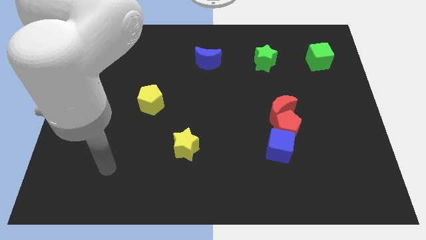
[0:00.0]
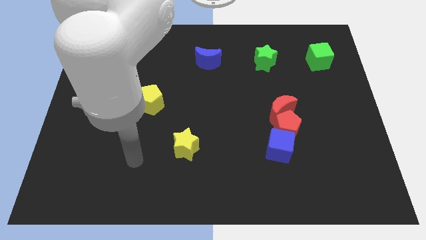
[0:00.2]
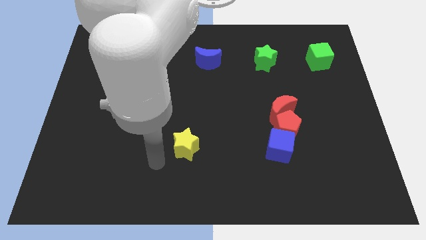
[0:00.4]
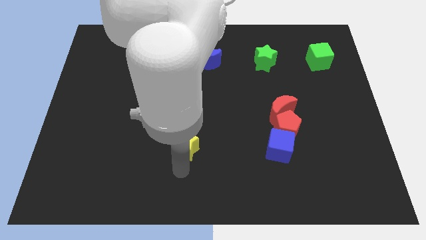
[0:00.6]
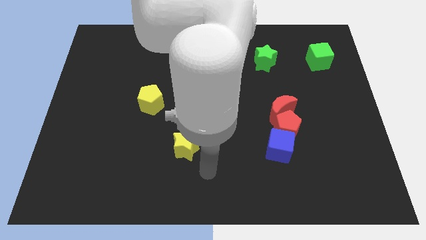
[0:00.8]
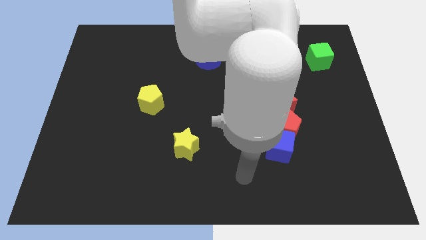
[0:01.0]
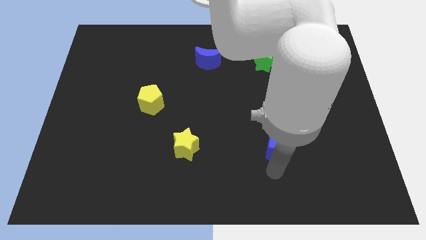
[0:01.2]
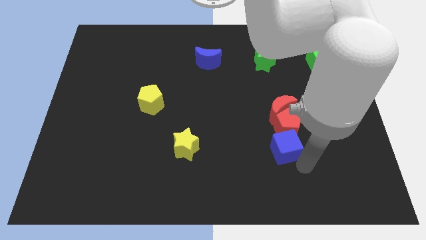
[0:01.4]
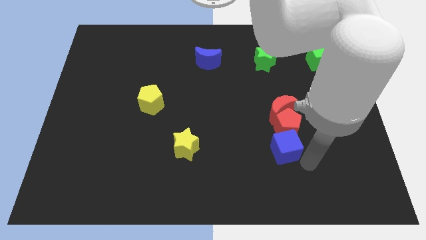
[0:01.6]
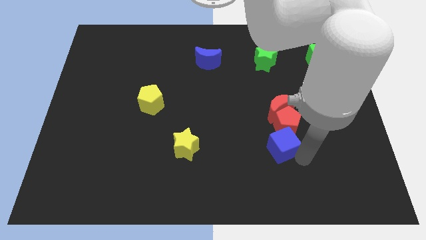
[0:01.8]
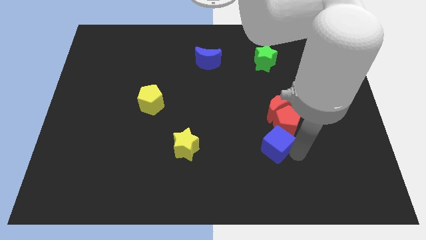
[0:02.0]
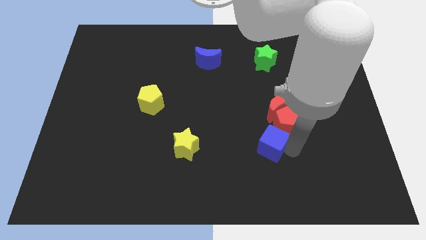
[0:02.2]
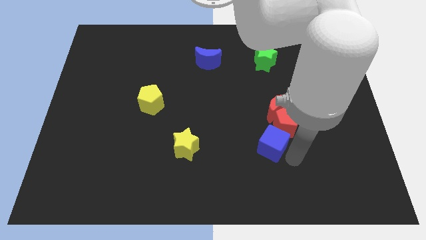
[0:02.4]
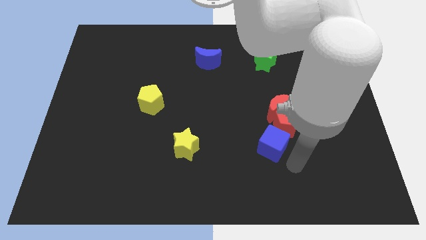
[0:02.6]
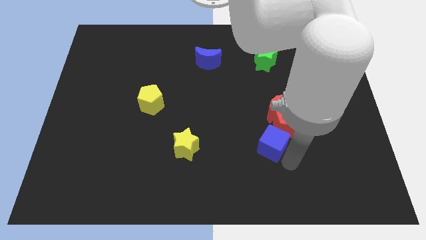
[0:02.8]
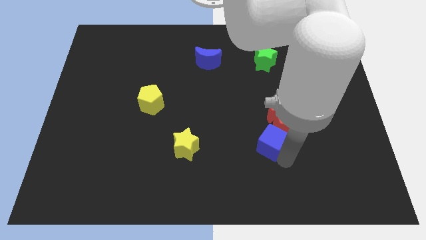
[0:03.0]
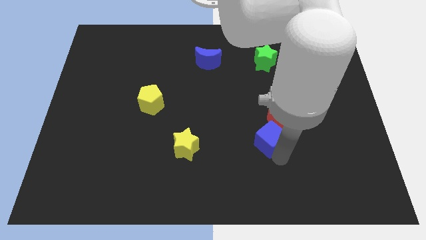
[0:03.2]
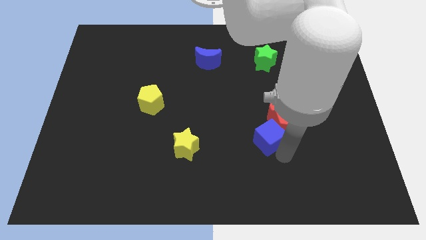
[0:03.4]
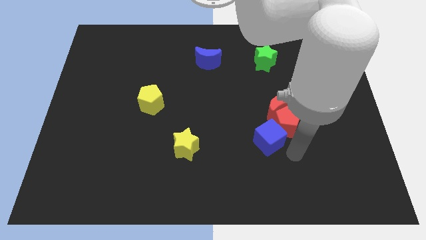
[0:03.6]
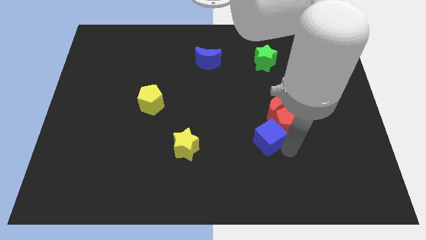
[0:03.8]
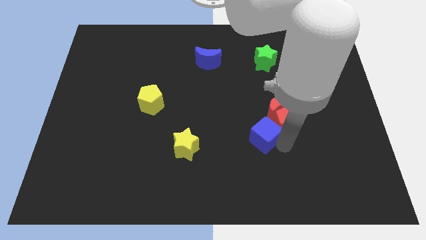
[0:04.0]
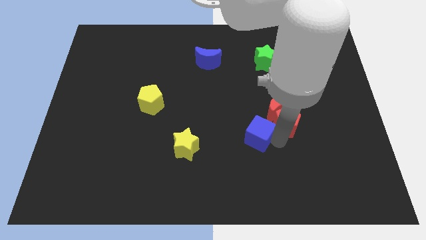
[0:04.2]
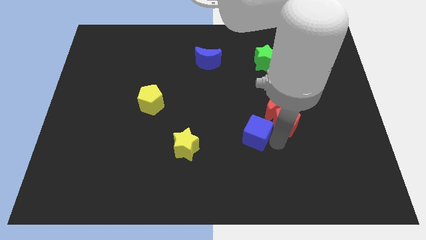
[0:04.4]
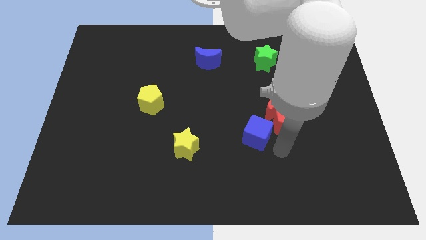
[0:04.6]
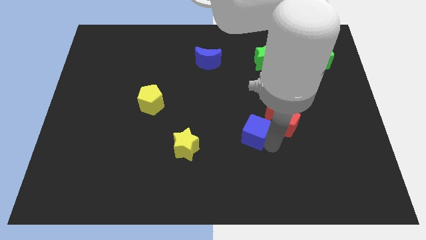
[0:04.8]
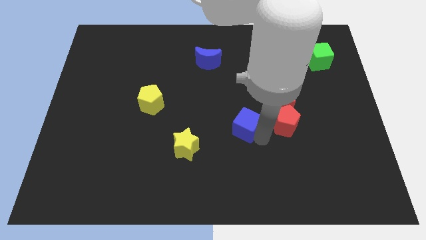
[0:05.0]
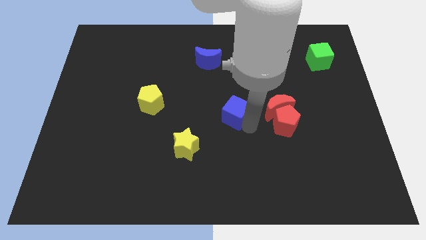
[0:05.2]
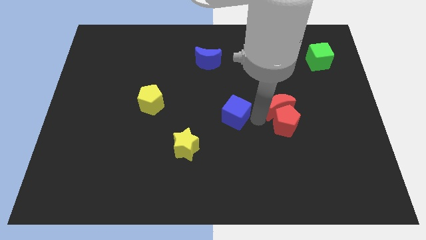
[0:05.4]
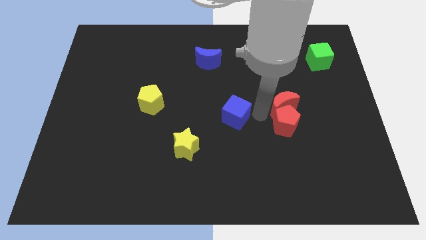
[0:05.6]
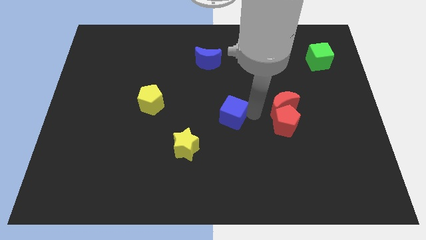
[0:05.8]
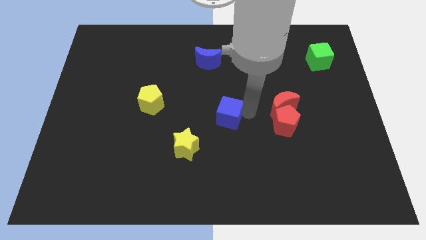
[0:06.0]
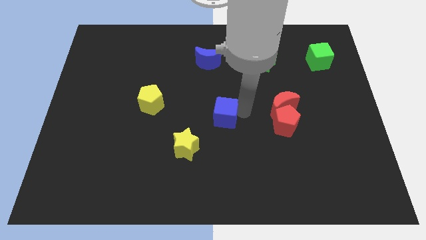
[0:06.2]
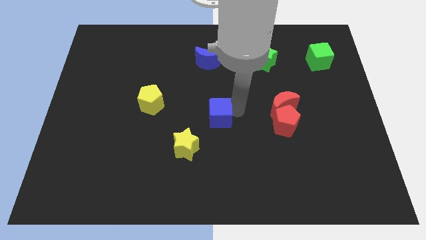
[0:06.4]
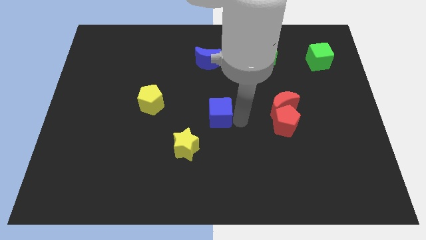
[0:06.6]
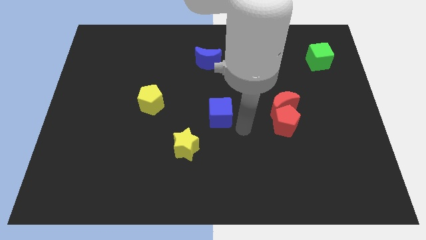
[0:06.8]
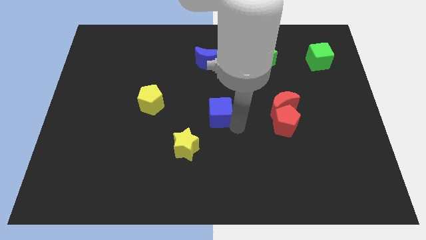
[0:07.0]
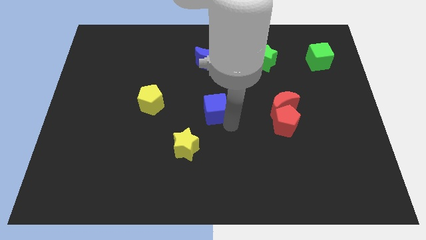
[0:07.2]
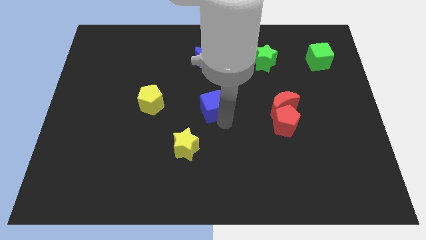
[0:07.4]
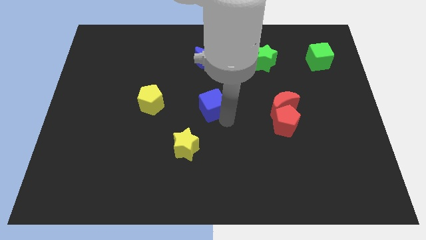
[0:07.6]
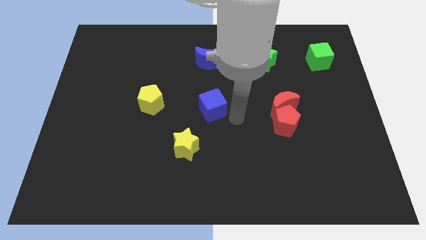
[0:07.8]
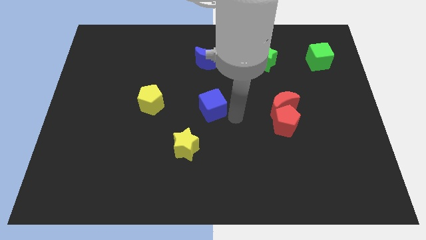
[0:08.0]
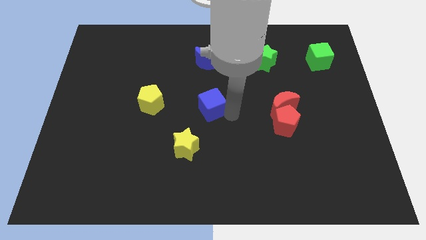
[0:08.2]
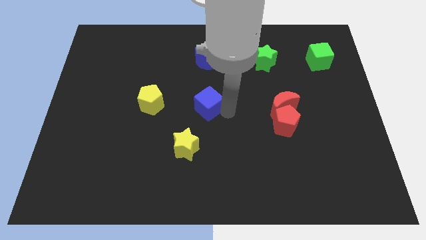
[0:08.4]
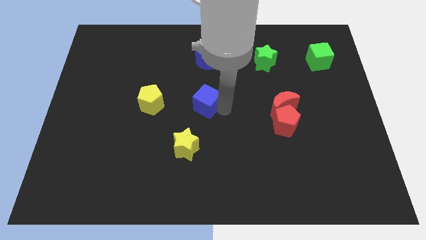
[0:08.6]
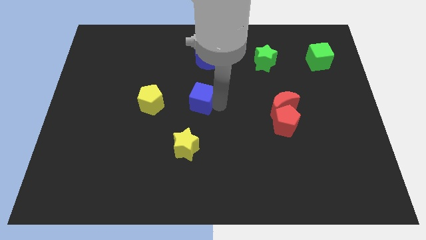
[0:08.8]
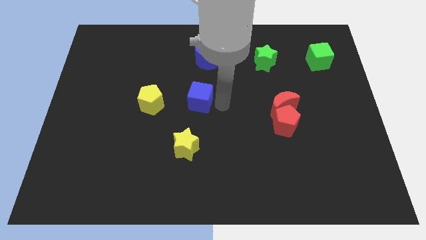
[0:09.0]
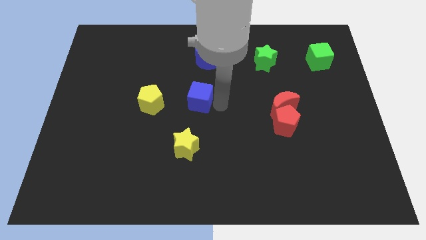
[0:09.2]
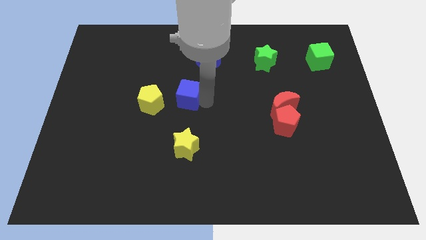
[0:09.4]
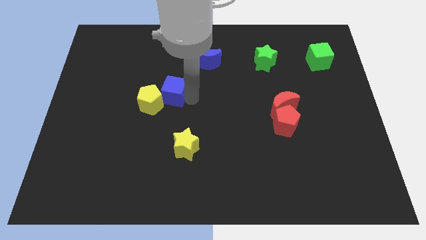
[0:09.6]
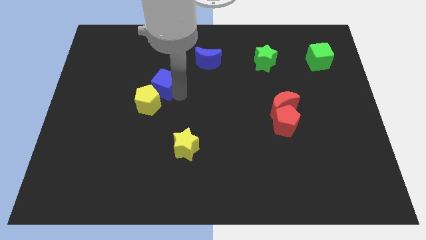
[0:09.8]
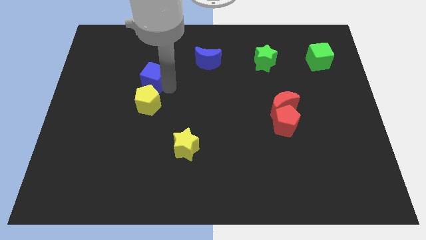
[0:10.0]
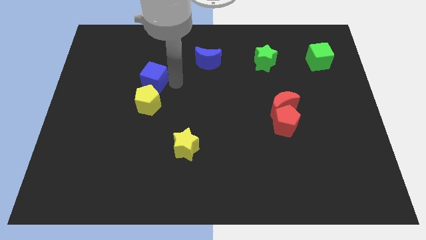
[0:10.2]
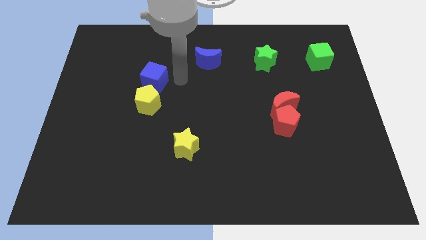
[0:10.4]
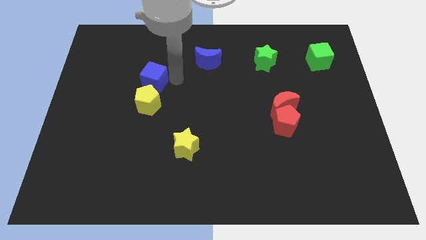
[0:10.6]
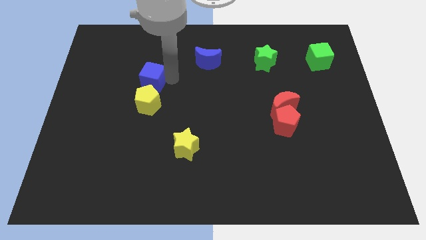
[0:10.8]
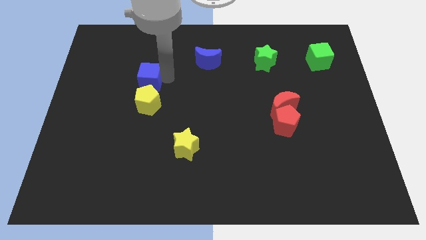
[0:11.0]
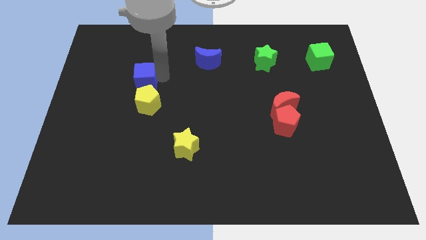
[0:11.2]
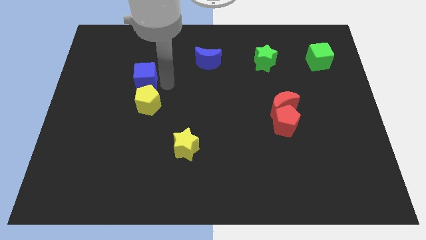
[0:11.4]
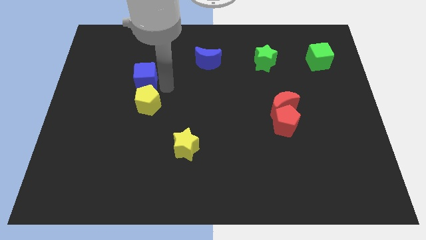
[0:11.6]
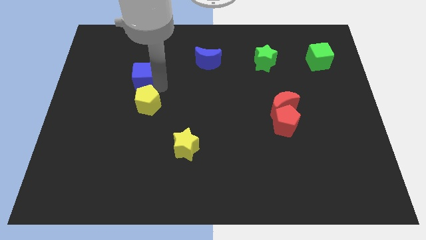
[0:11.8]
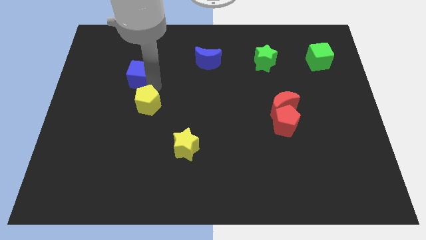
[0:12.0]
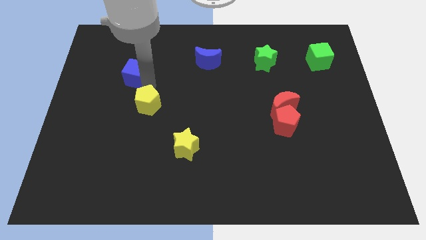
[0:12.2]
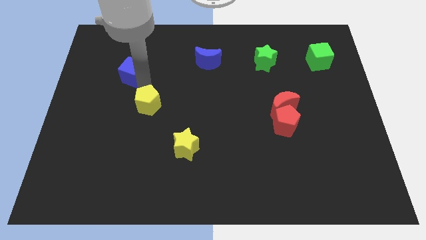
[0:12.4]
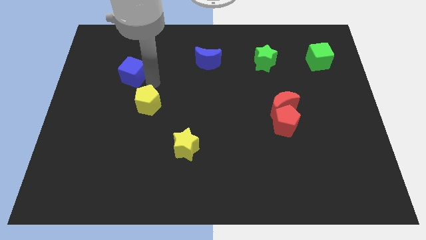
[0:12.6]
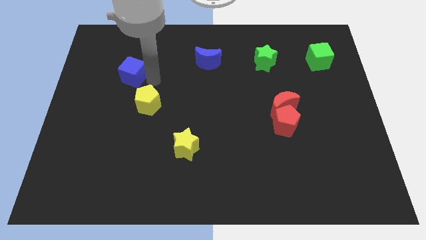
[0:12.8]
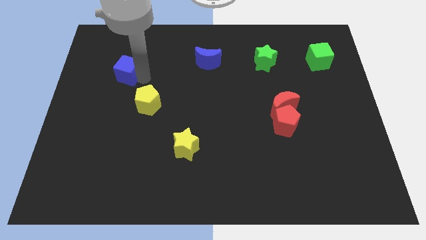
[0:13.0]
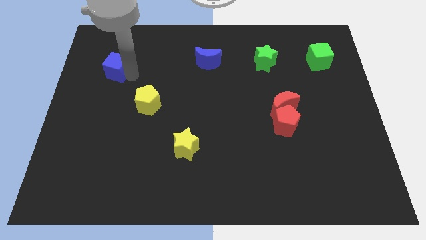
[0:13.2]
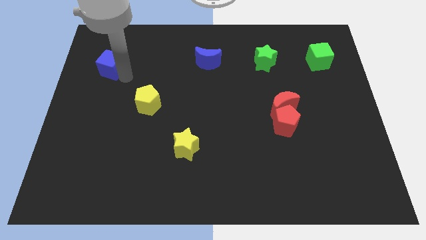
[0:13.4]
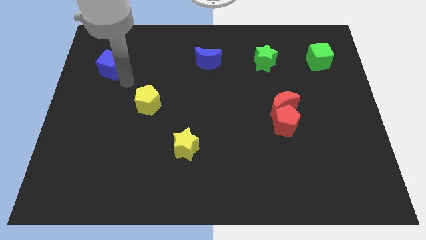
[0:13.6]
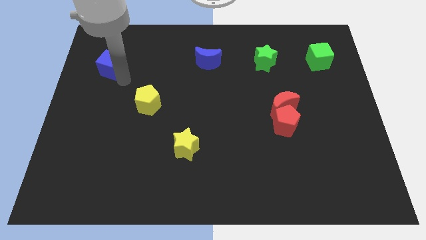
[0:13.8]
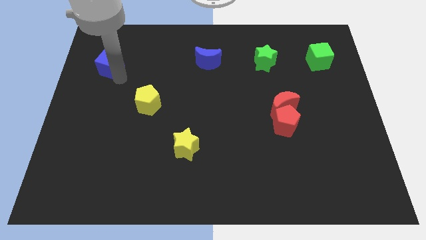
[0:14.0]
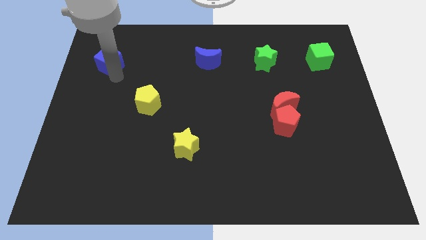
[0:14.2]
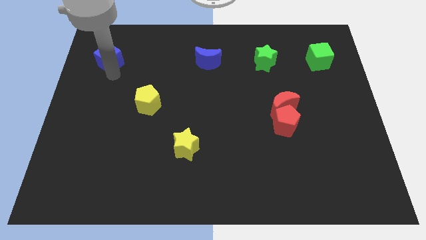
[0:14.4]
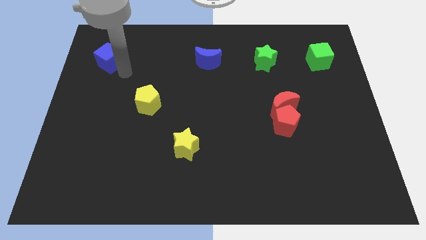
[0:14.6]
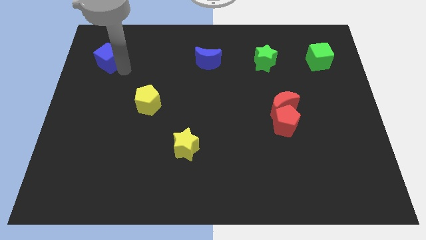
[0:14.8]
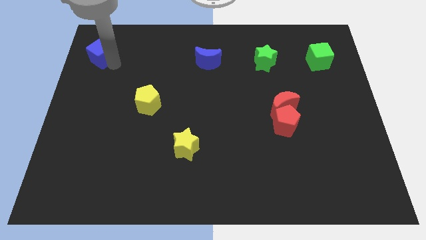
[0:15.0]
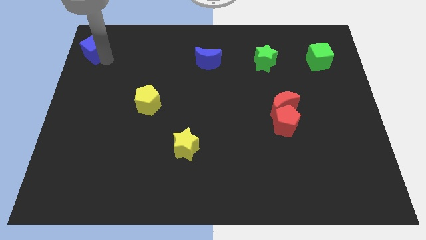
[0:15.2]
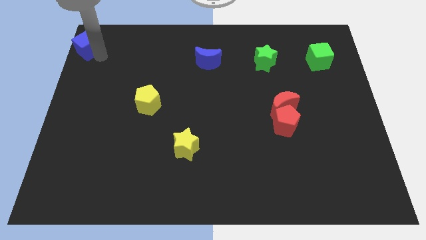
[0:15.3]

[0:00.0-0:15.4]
move the blue cube to the top left
